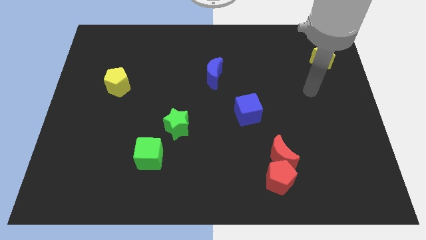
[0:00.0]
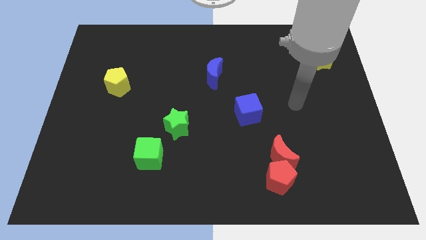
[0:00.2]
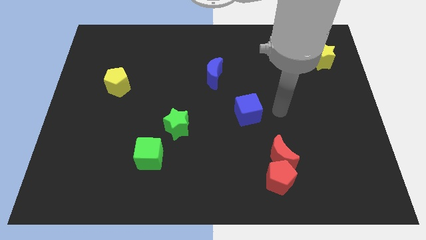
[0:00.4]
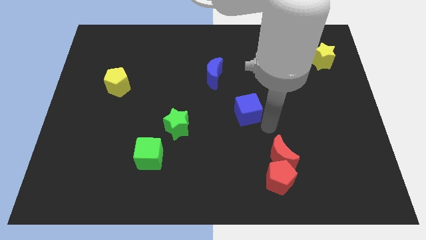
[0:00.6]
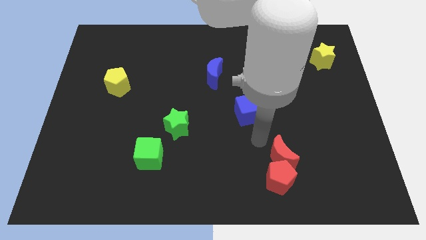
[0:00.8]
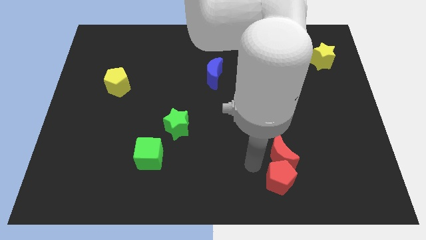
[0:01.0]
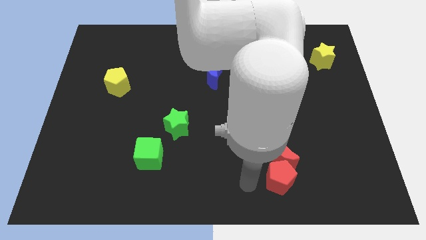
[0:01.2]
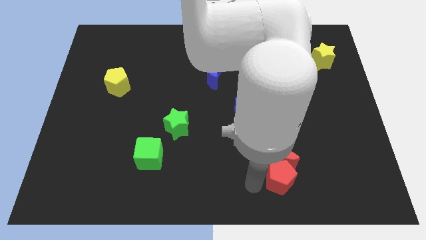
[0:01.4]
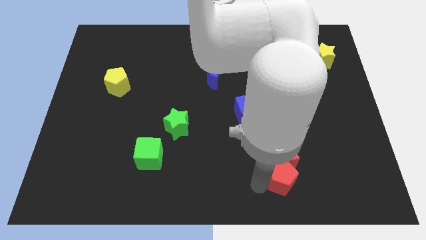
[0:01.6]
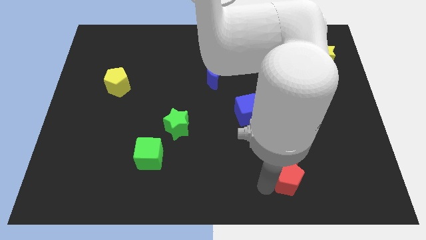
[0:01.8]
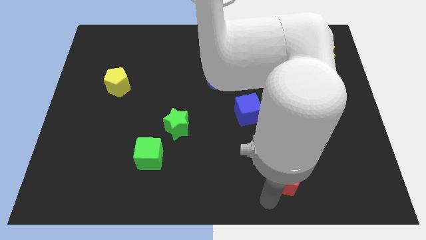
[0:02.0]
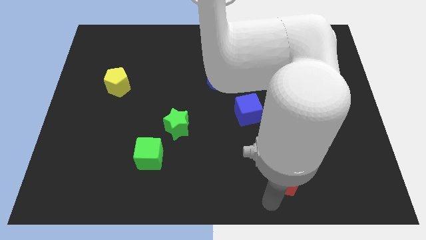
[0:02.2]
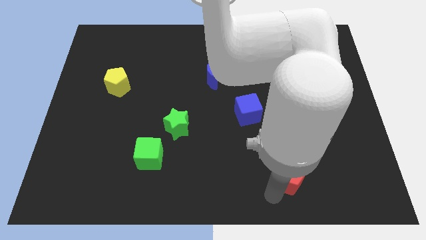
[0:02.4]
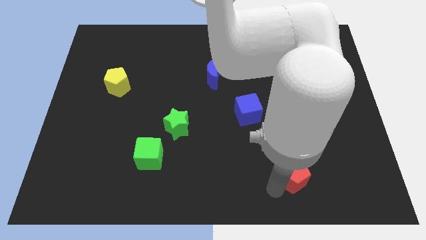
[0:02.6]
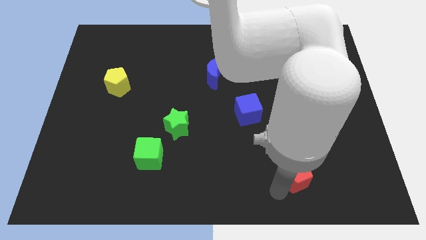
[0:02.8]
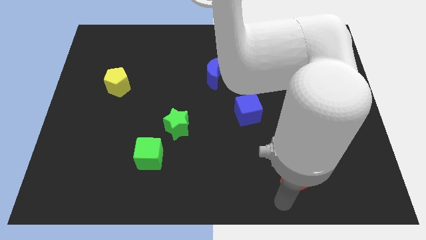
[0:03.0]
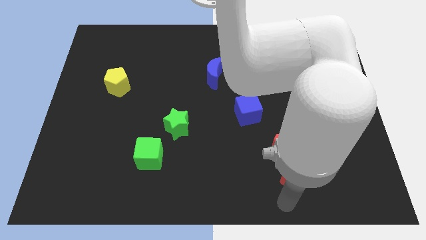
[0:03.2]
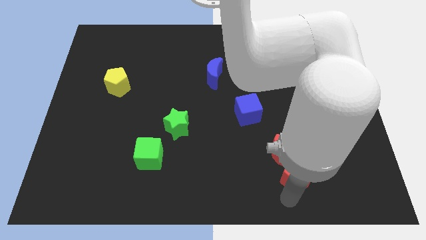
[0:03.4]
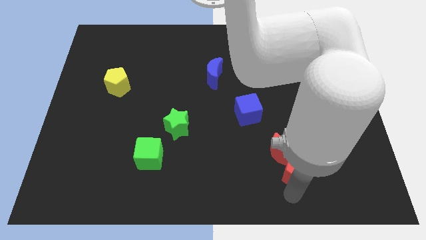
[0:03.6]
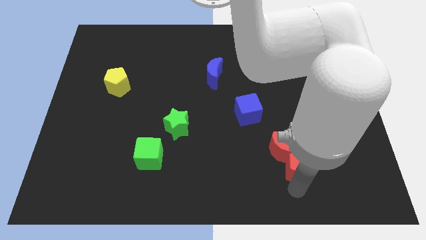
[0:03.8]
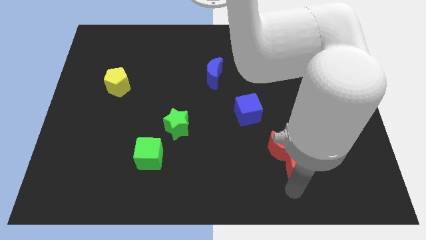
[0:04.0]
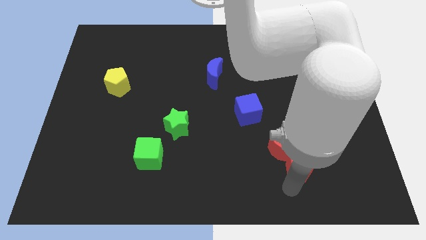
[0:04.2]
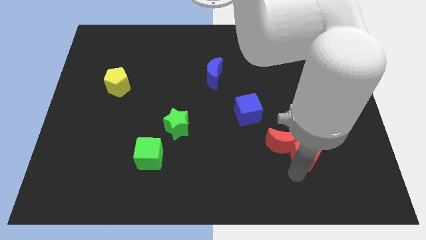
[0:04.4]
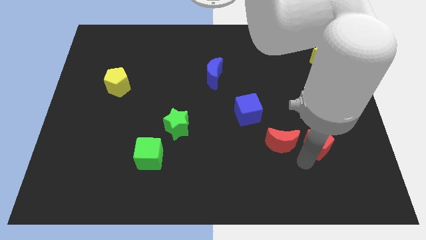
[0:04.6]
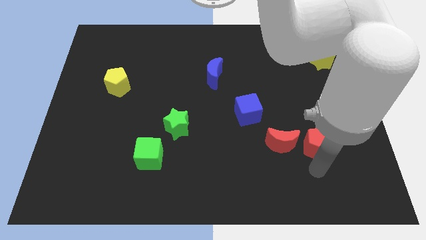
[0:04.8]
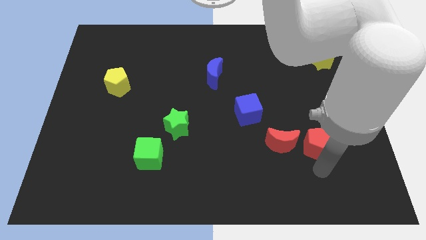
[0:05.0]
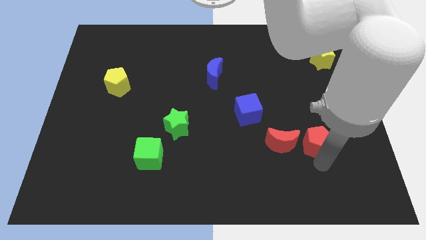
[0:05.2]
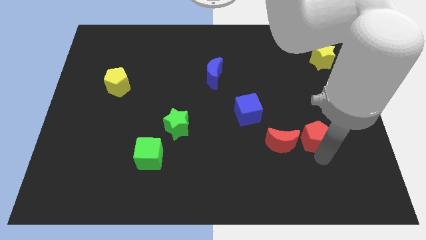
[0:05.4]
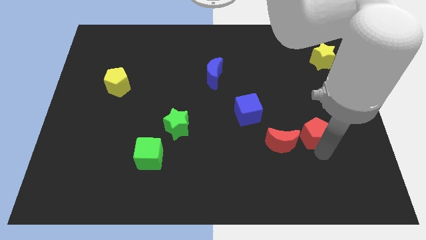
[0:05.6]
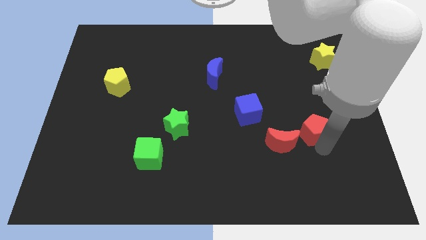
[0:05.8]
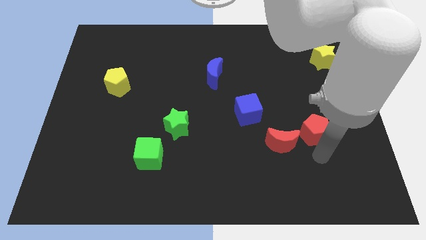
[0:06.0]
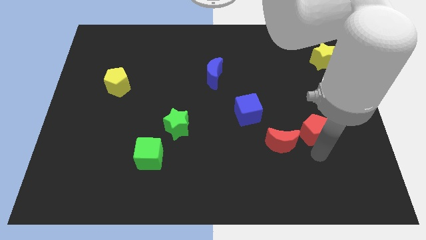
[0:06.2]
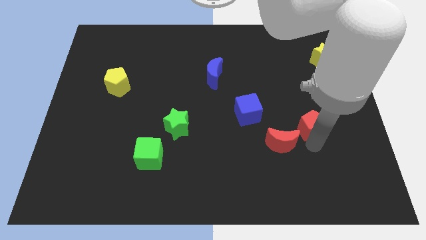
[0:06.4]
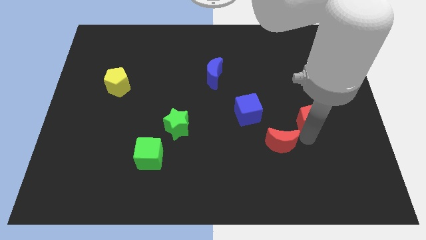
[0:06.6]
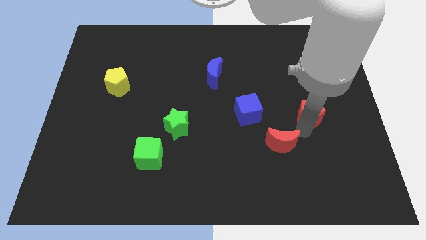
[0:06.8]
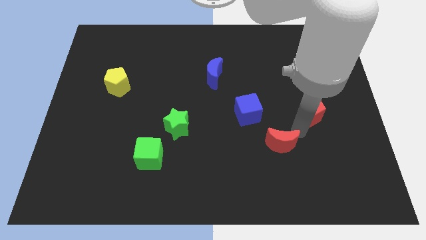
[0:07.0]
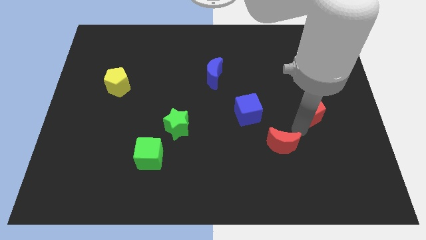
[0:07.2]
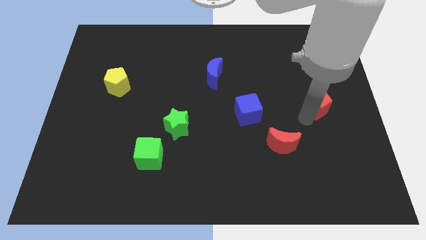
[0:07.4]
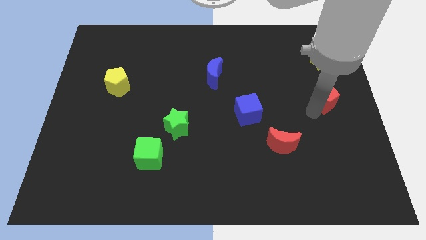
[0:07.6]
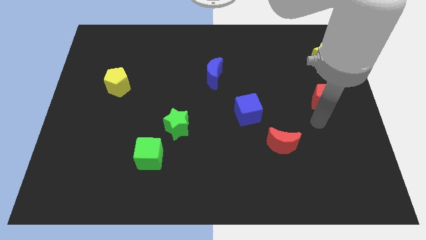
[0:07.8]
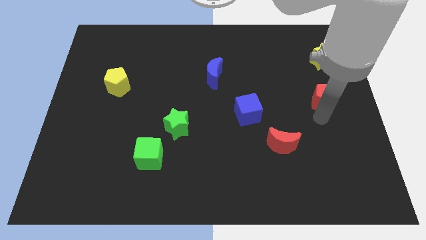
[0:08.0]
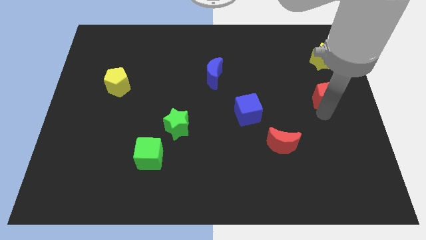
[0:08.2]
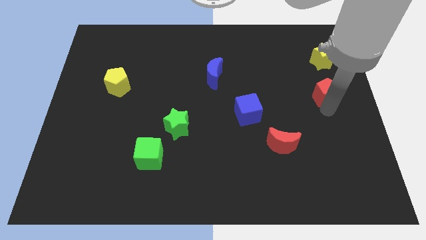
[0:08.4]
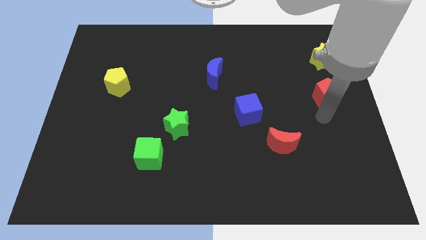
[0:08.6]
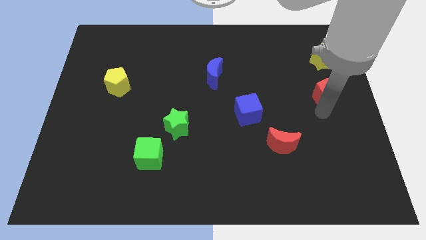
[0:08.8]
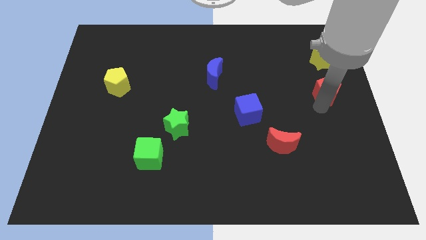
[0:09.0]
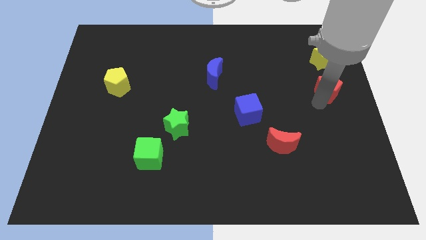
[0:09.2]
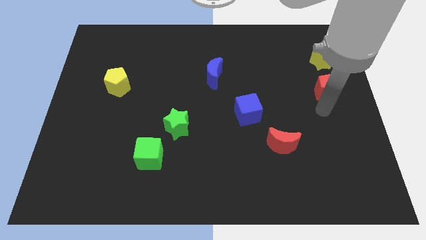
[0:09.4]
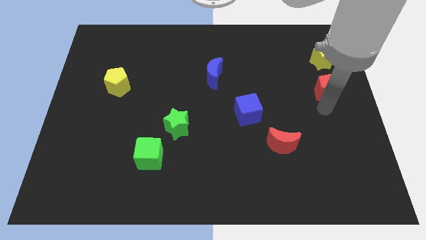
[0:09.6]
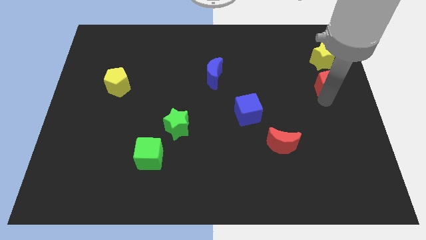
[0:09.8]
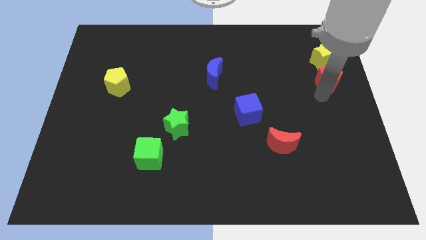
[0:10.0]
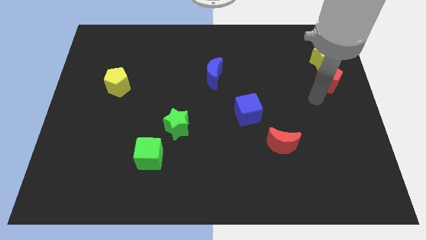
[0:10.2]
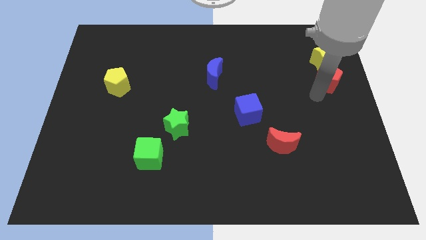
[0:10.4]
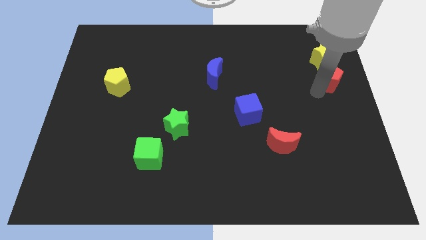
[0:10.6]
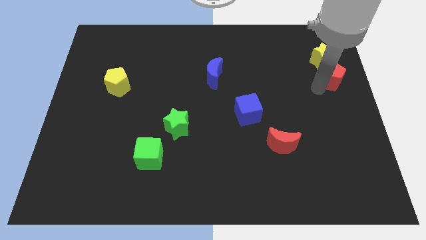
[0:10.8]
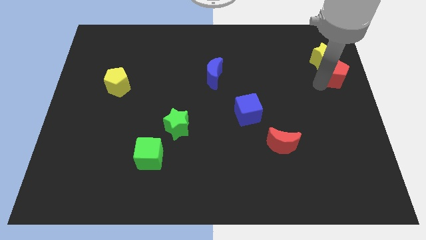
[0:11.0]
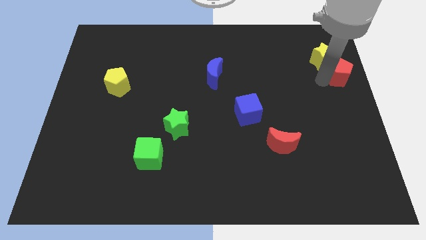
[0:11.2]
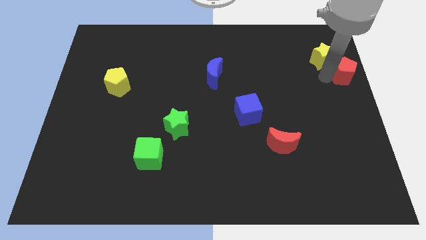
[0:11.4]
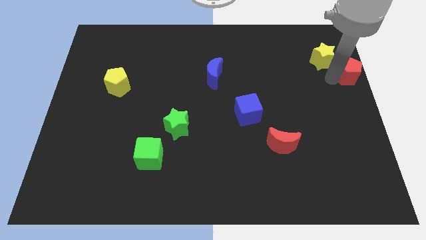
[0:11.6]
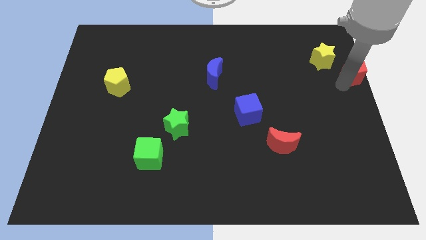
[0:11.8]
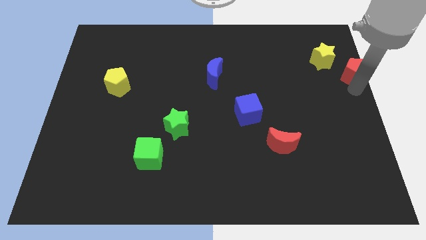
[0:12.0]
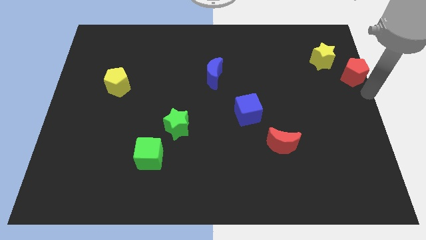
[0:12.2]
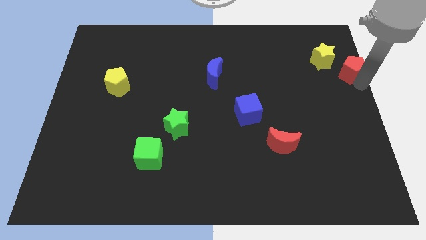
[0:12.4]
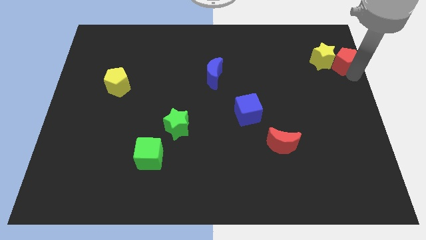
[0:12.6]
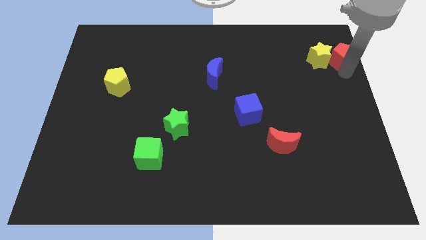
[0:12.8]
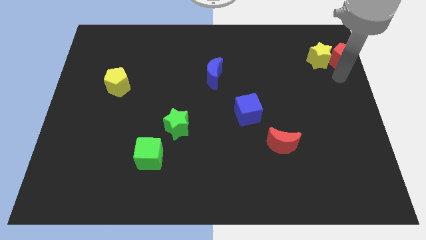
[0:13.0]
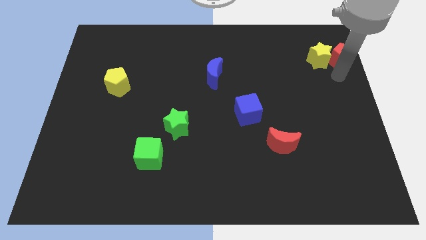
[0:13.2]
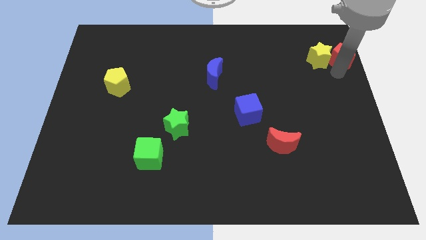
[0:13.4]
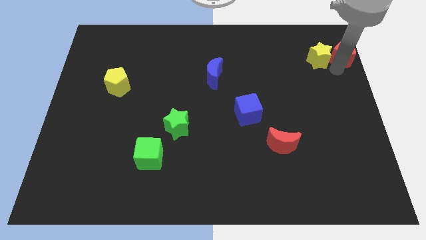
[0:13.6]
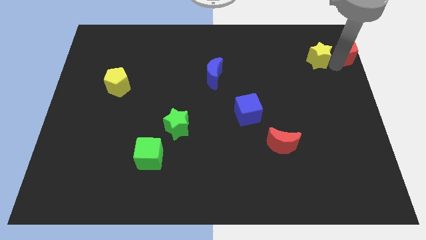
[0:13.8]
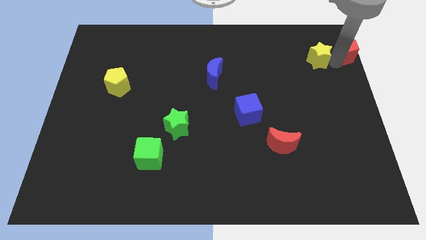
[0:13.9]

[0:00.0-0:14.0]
move the red pentagon to the top right

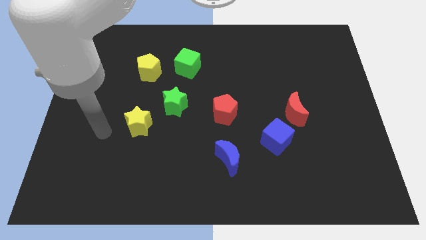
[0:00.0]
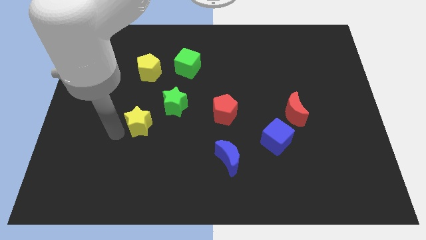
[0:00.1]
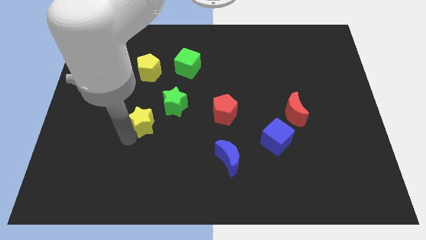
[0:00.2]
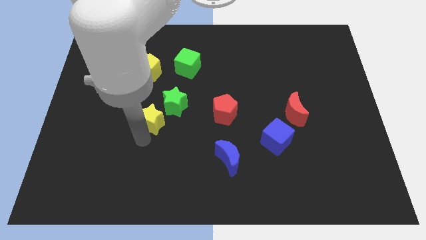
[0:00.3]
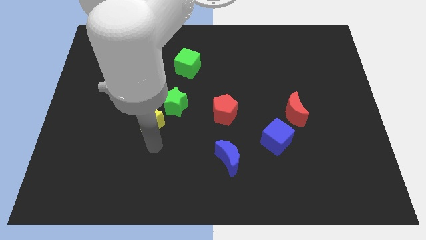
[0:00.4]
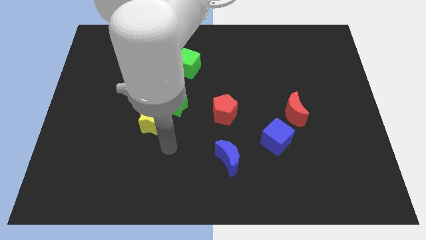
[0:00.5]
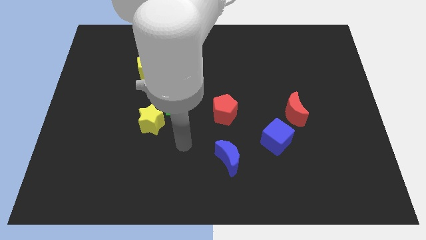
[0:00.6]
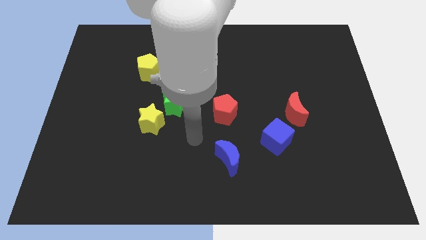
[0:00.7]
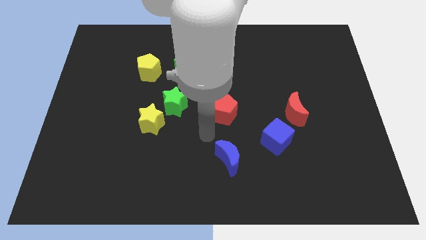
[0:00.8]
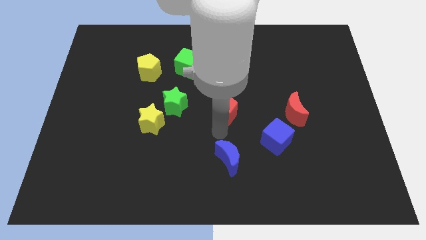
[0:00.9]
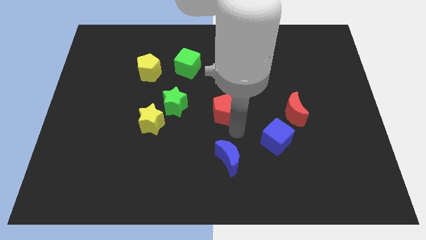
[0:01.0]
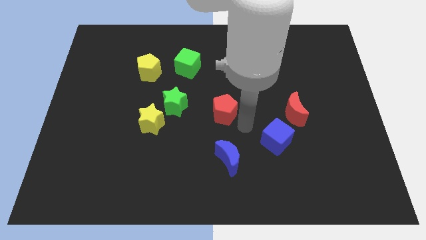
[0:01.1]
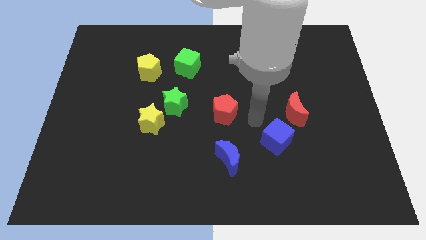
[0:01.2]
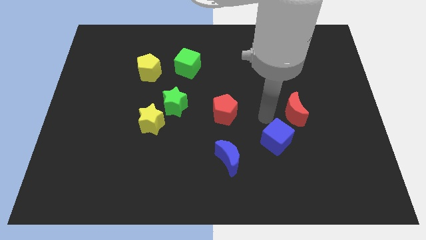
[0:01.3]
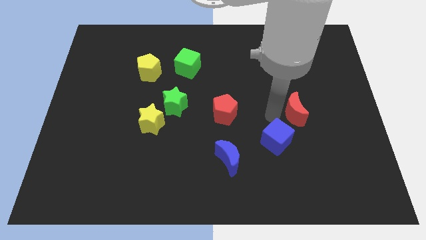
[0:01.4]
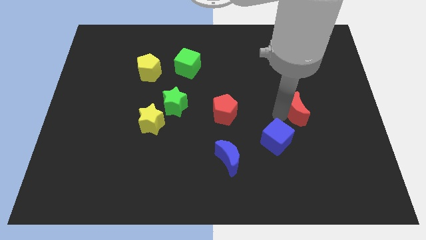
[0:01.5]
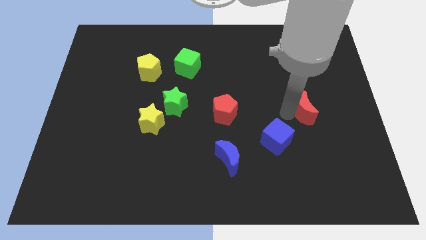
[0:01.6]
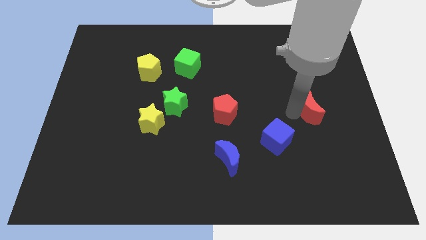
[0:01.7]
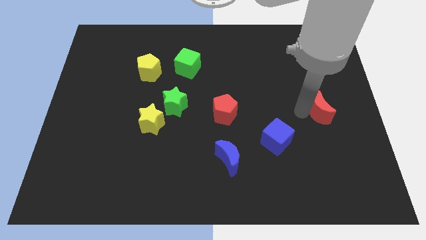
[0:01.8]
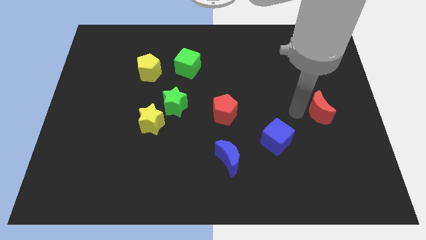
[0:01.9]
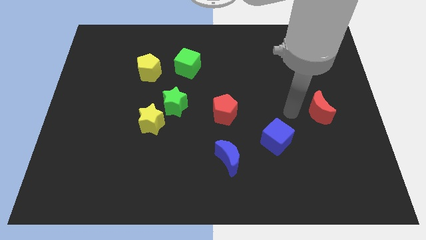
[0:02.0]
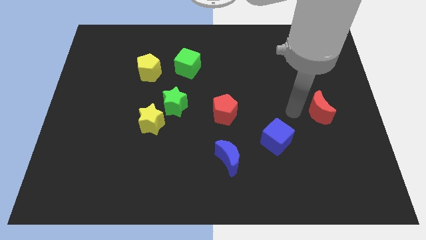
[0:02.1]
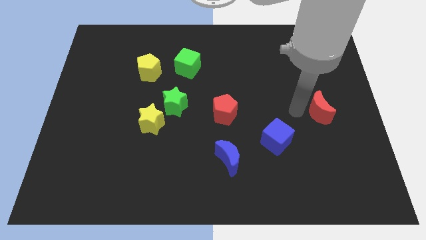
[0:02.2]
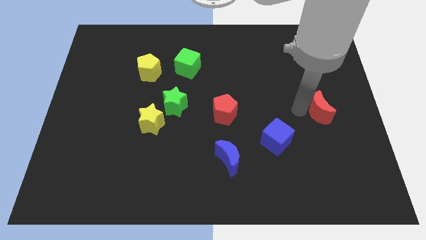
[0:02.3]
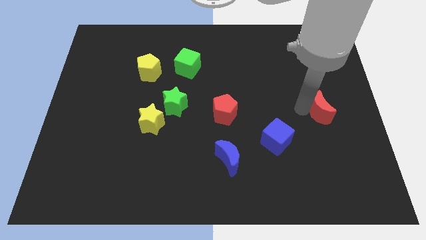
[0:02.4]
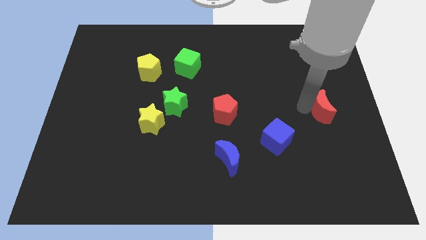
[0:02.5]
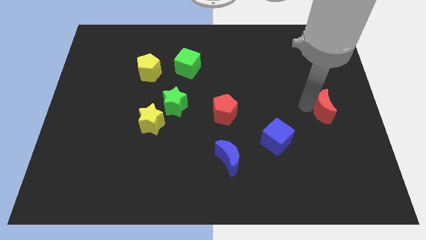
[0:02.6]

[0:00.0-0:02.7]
slide the red moon to the center right
